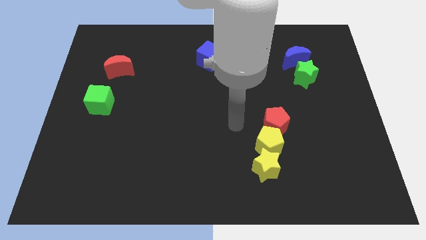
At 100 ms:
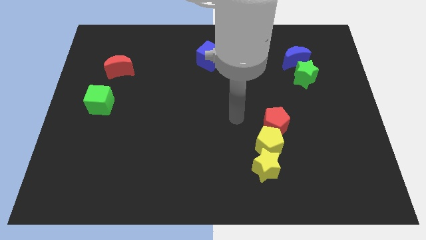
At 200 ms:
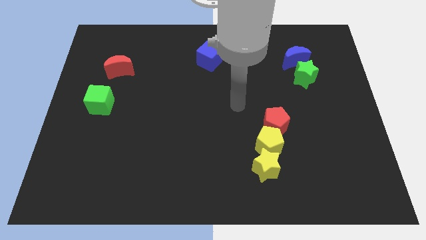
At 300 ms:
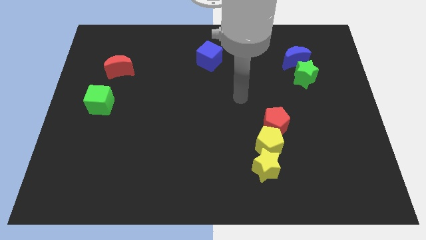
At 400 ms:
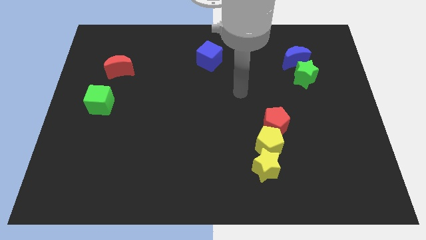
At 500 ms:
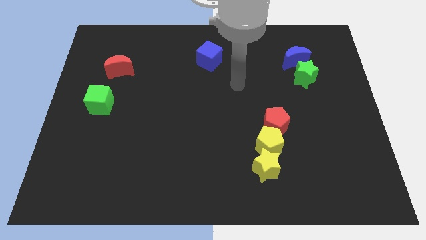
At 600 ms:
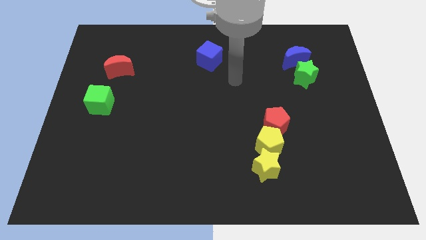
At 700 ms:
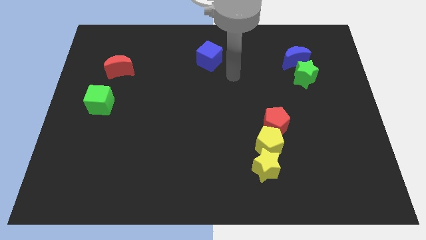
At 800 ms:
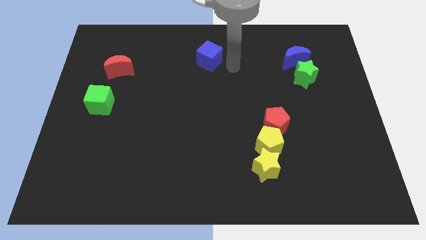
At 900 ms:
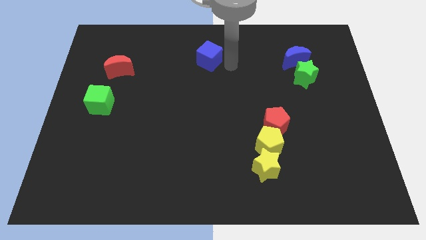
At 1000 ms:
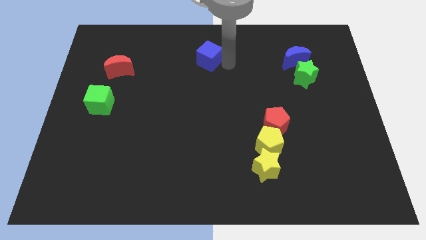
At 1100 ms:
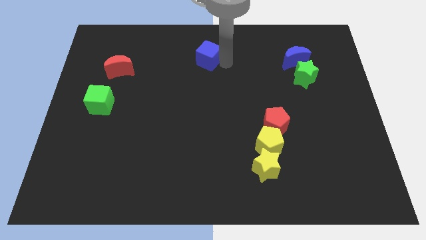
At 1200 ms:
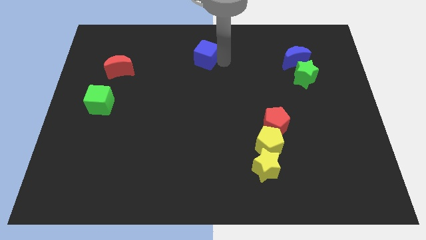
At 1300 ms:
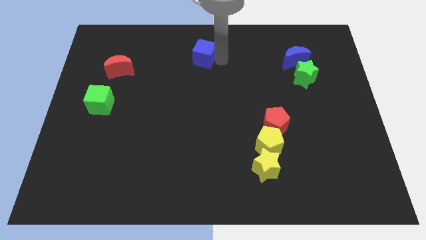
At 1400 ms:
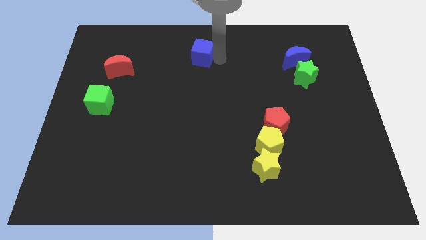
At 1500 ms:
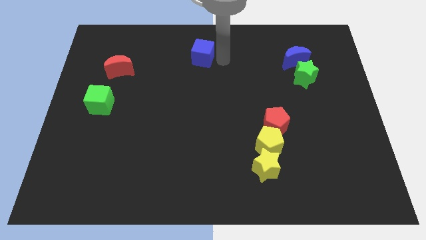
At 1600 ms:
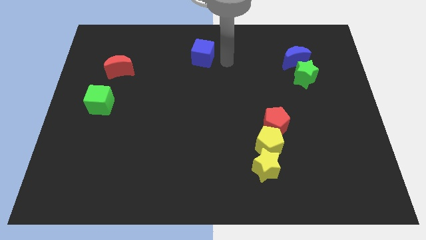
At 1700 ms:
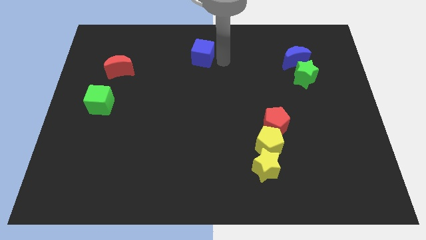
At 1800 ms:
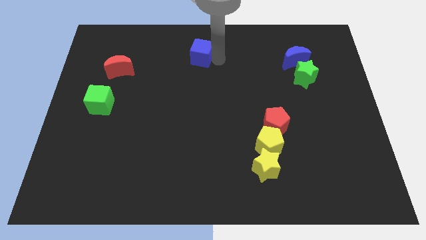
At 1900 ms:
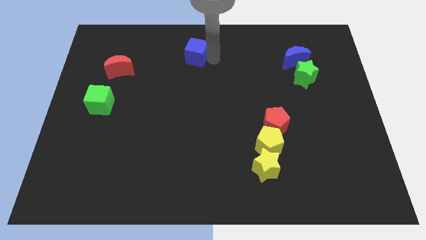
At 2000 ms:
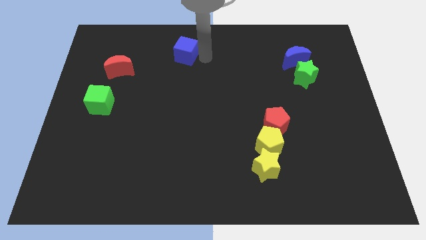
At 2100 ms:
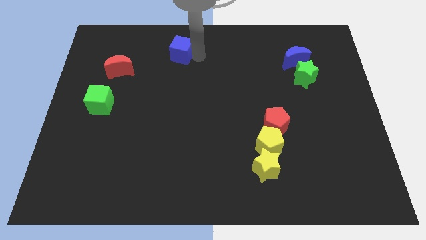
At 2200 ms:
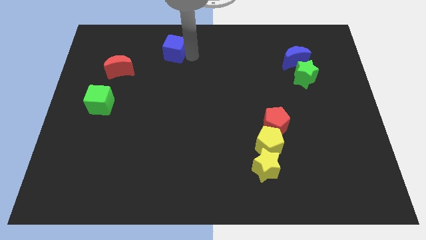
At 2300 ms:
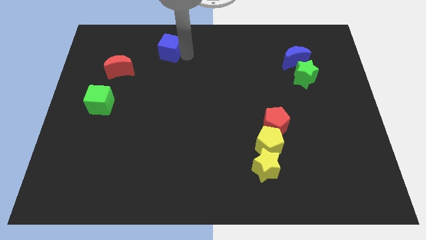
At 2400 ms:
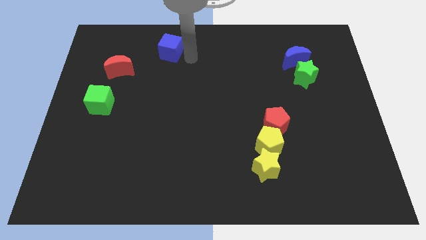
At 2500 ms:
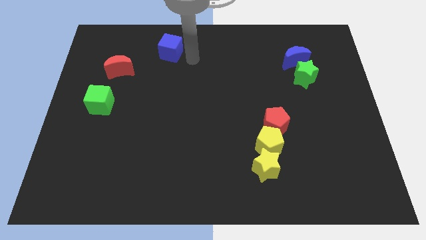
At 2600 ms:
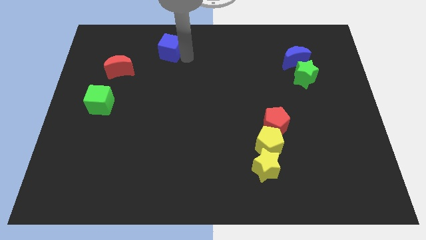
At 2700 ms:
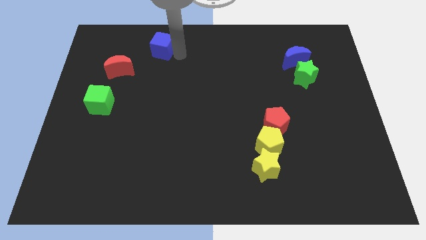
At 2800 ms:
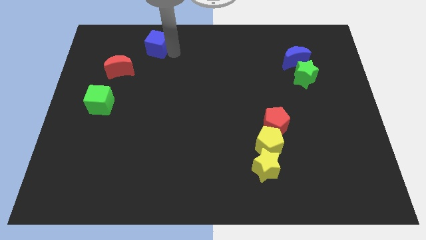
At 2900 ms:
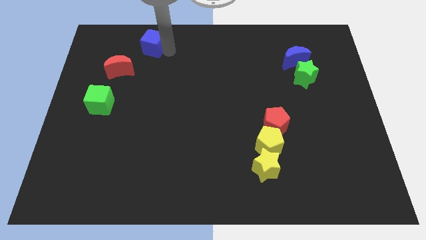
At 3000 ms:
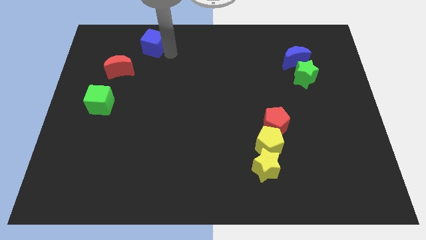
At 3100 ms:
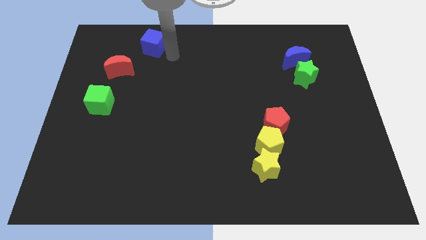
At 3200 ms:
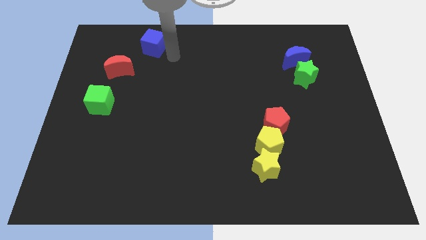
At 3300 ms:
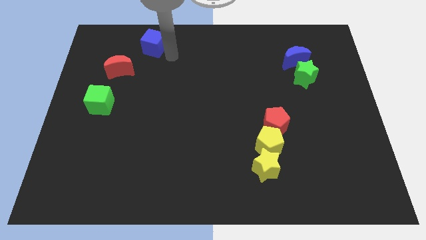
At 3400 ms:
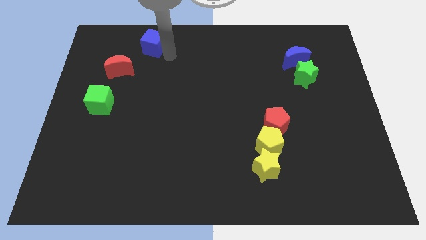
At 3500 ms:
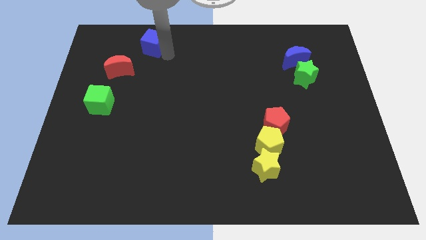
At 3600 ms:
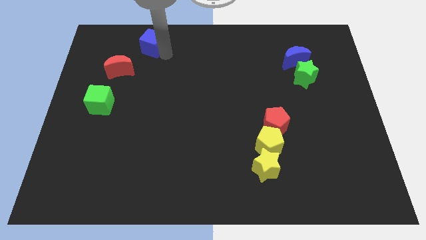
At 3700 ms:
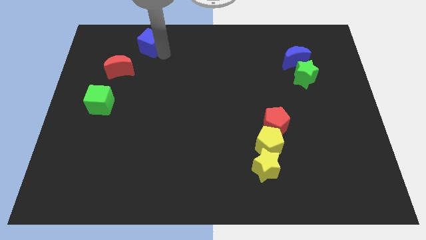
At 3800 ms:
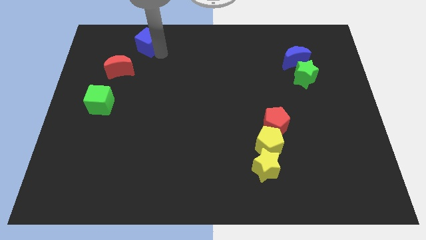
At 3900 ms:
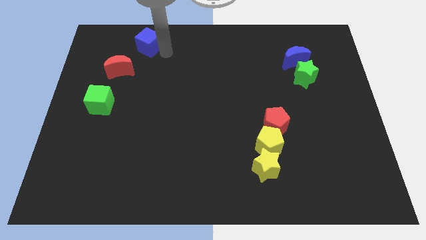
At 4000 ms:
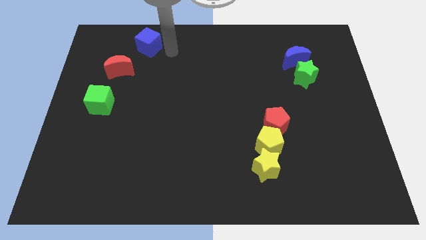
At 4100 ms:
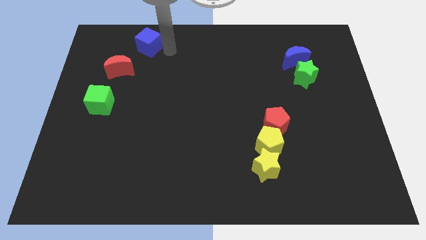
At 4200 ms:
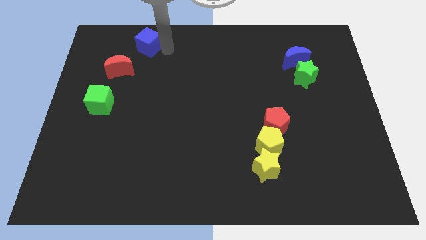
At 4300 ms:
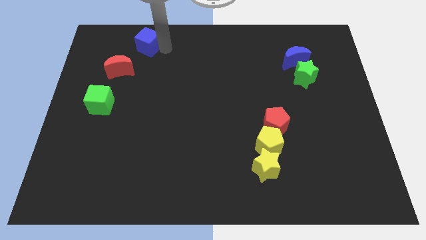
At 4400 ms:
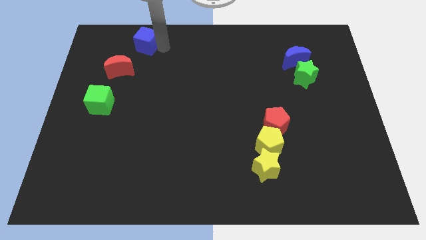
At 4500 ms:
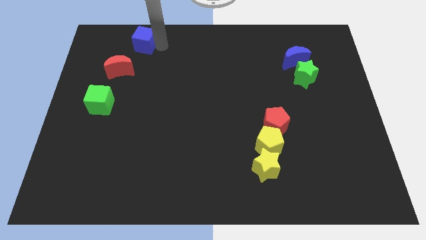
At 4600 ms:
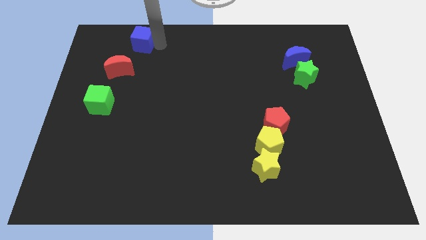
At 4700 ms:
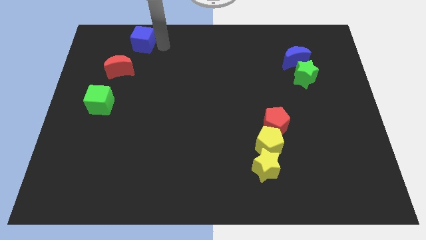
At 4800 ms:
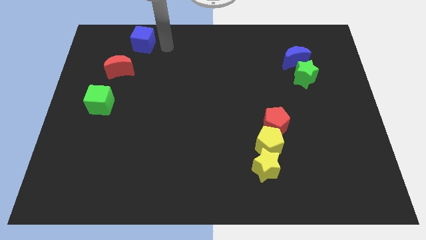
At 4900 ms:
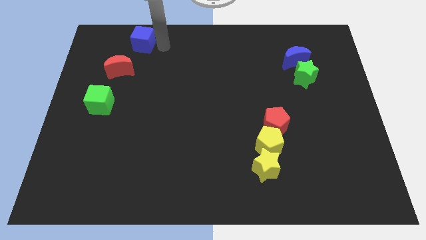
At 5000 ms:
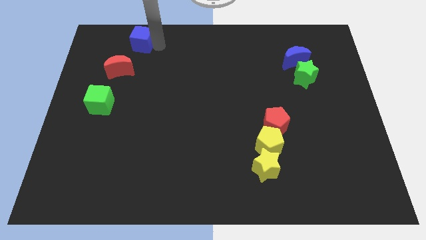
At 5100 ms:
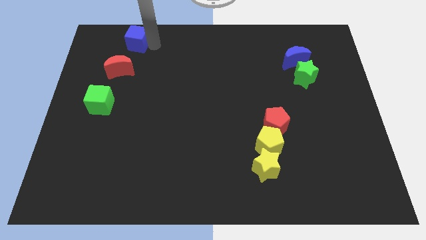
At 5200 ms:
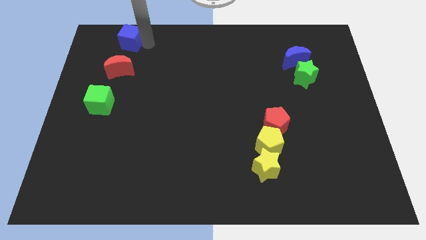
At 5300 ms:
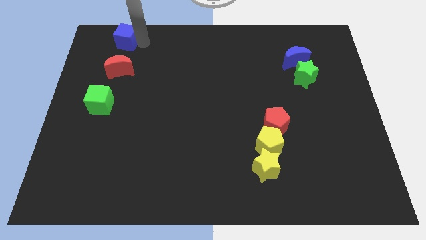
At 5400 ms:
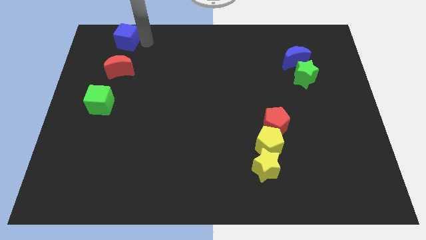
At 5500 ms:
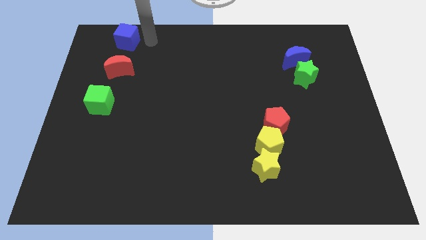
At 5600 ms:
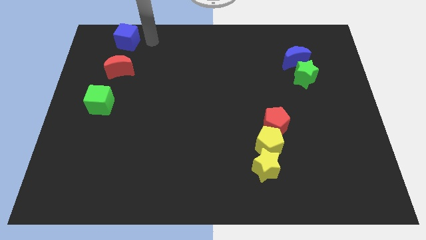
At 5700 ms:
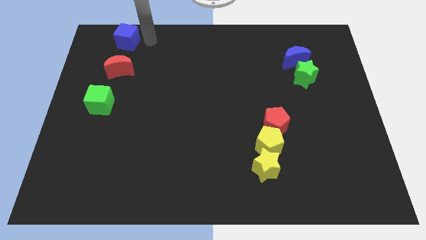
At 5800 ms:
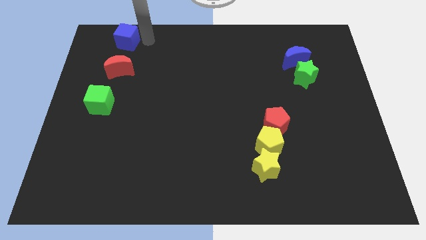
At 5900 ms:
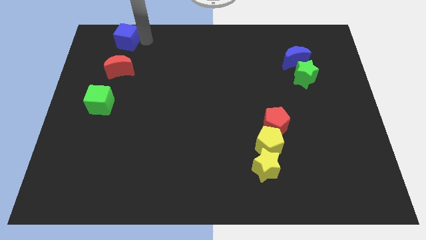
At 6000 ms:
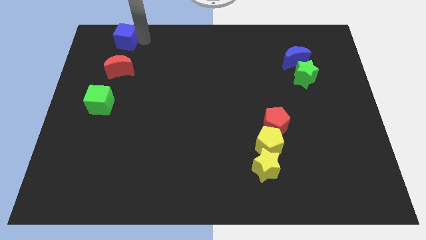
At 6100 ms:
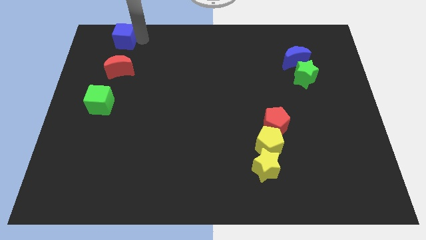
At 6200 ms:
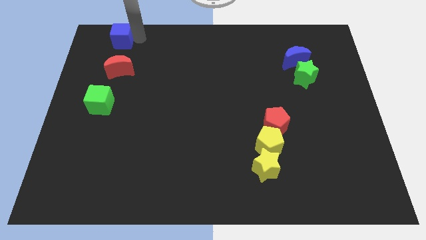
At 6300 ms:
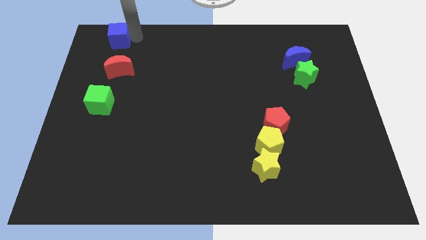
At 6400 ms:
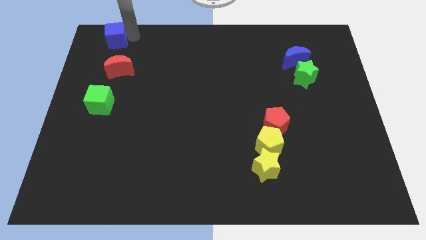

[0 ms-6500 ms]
move the blue cube to the top left of the board
